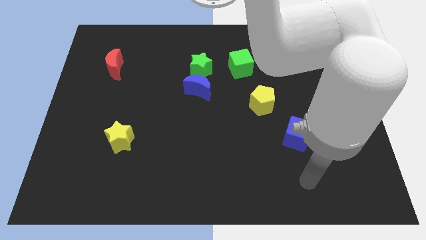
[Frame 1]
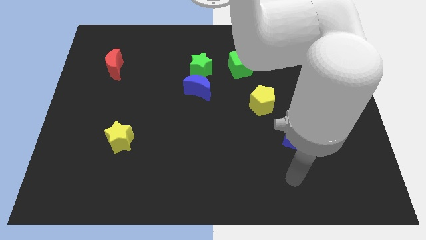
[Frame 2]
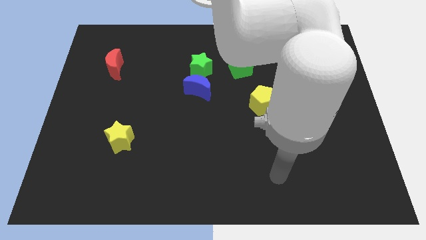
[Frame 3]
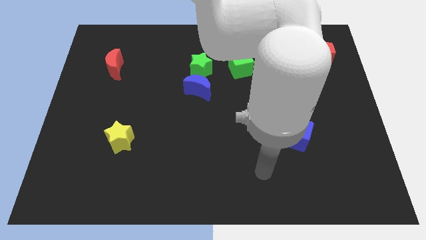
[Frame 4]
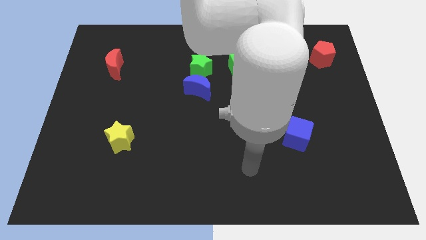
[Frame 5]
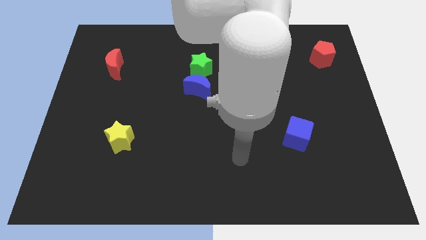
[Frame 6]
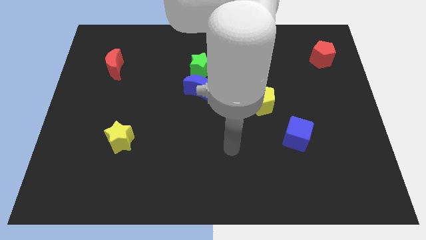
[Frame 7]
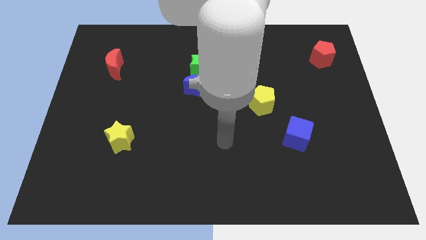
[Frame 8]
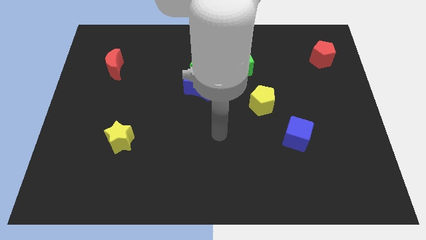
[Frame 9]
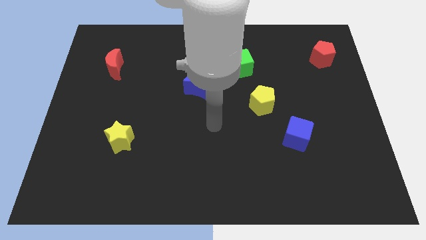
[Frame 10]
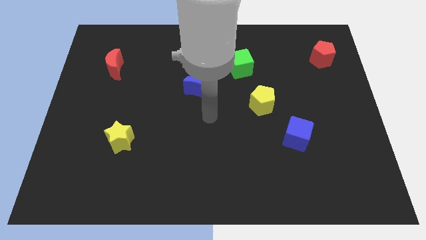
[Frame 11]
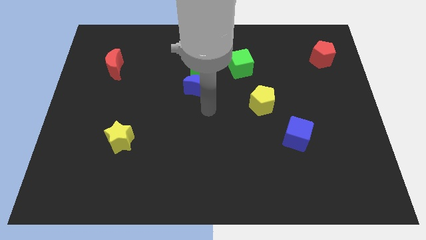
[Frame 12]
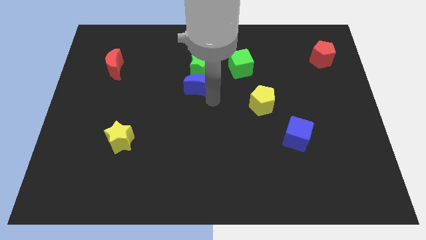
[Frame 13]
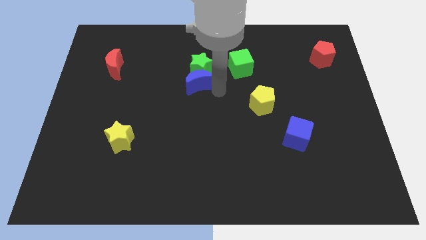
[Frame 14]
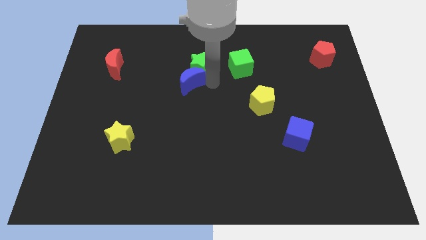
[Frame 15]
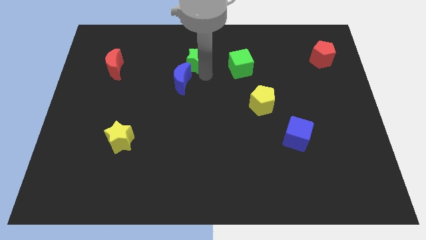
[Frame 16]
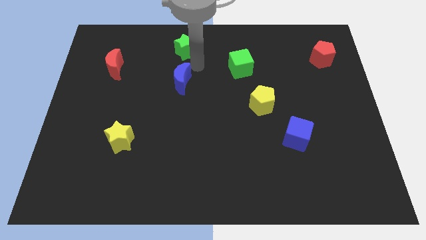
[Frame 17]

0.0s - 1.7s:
move the blue moon away from the green star

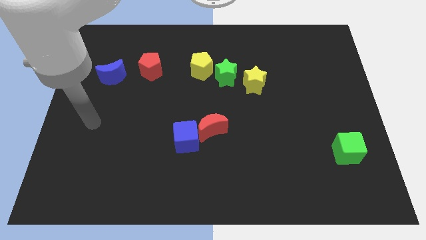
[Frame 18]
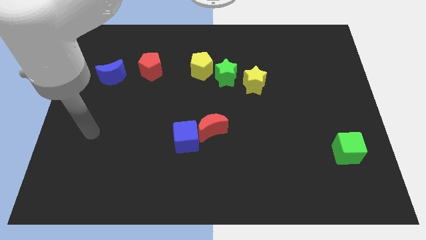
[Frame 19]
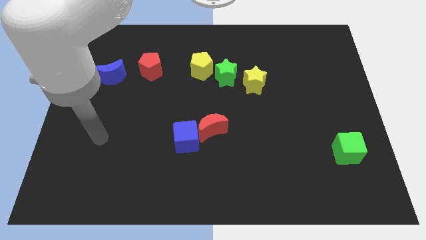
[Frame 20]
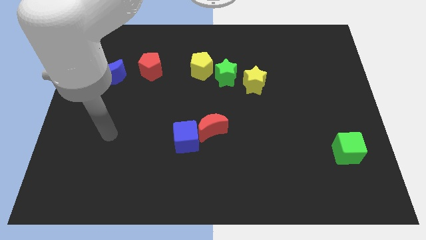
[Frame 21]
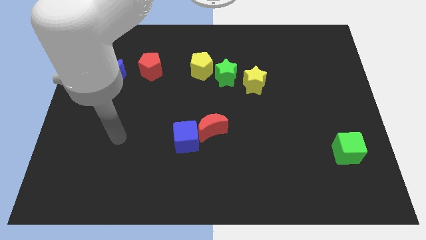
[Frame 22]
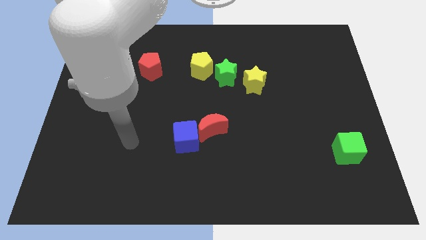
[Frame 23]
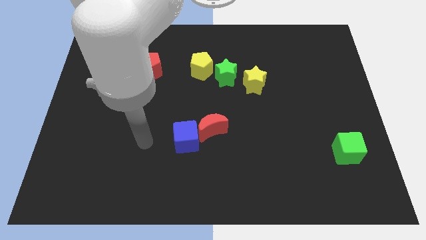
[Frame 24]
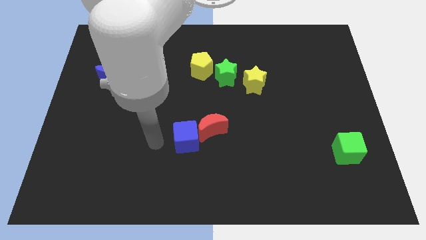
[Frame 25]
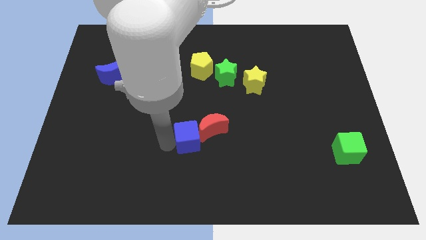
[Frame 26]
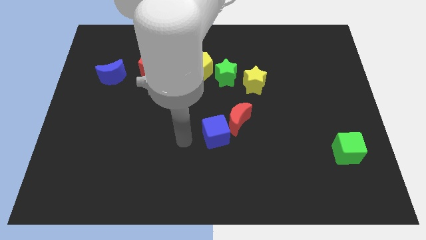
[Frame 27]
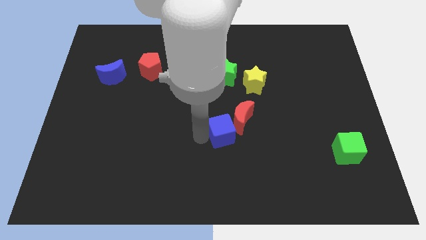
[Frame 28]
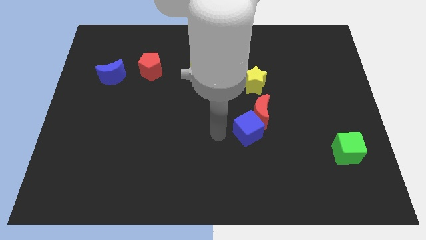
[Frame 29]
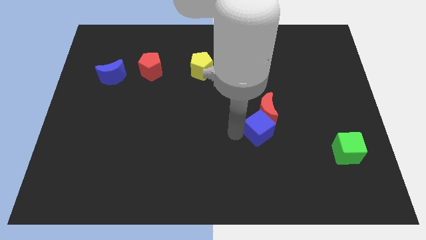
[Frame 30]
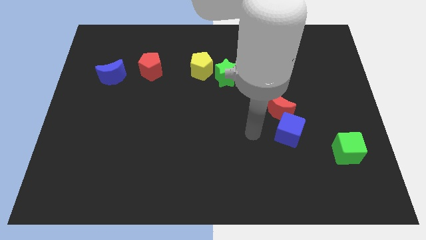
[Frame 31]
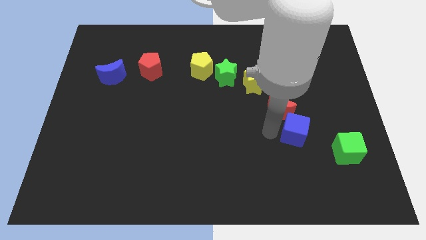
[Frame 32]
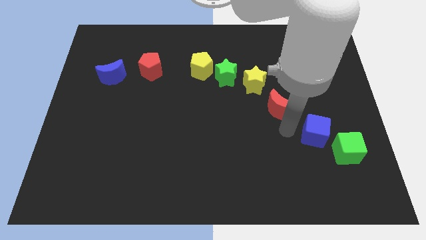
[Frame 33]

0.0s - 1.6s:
move the red moon away from the blue cube

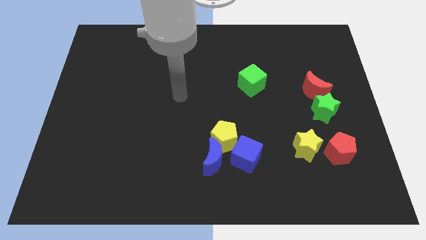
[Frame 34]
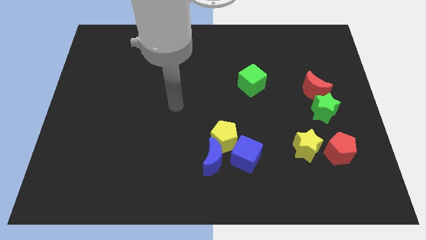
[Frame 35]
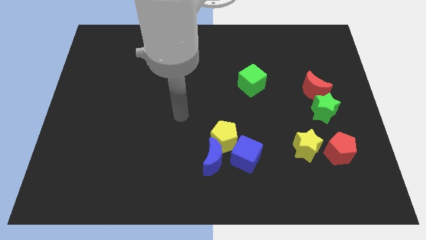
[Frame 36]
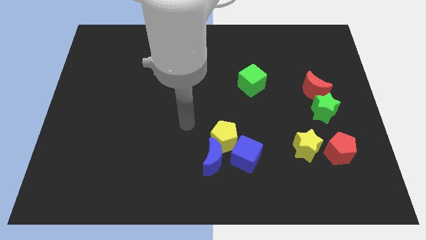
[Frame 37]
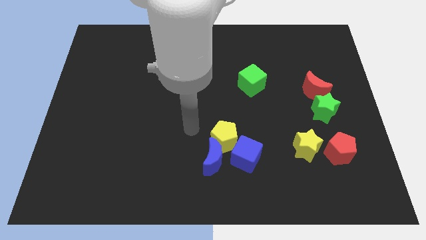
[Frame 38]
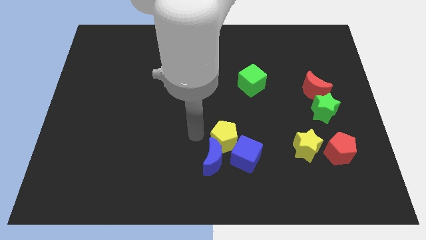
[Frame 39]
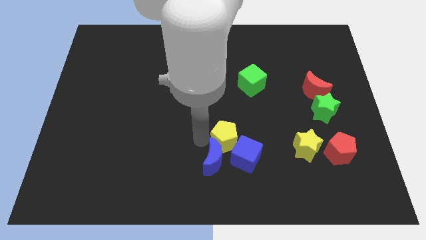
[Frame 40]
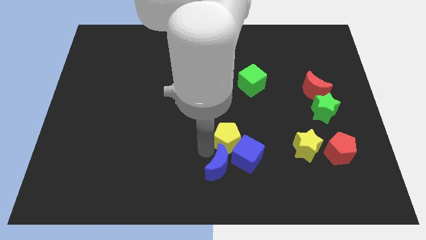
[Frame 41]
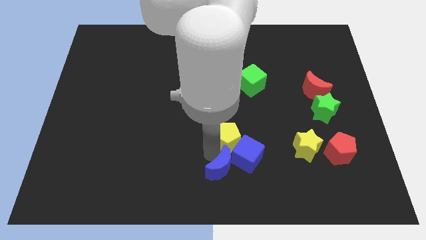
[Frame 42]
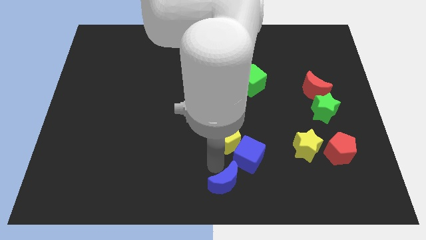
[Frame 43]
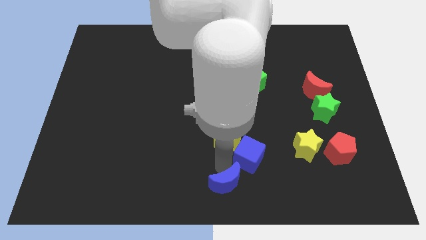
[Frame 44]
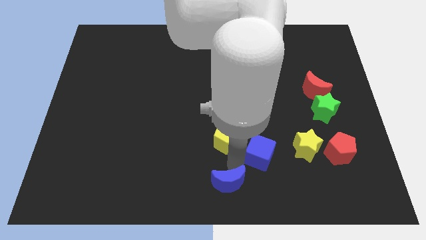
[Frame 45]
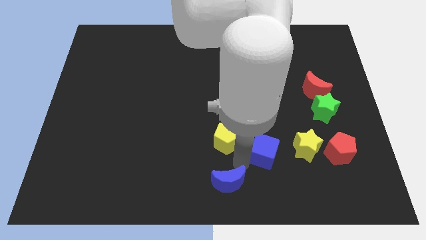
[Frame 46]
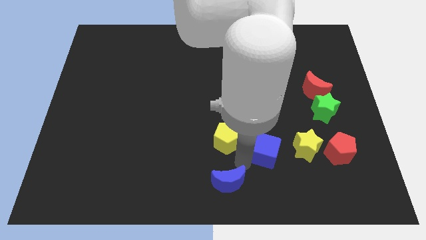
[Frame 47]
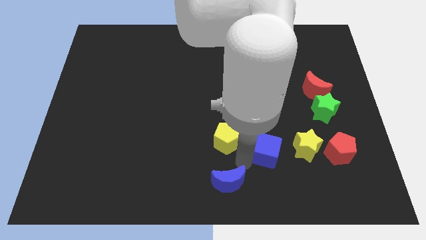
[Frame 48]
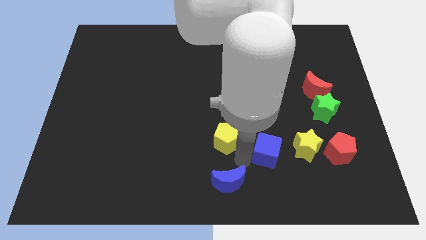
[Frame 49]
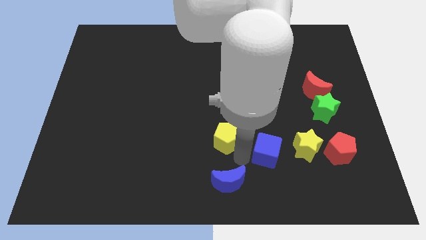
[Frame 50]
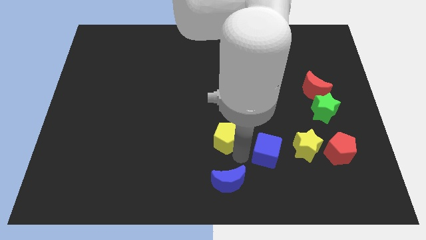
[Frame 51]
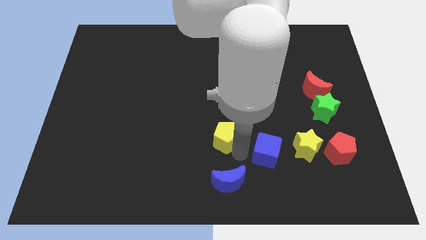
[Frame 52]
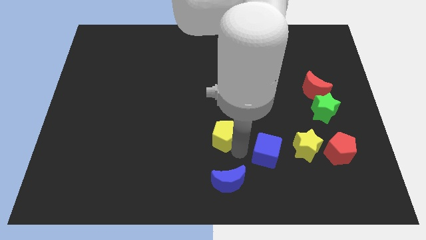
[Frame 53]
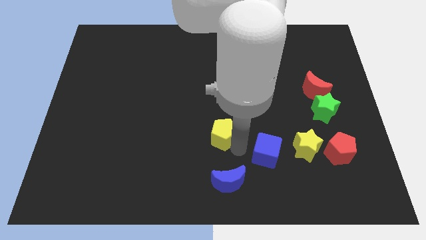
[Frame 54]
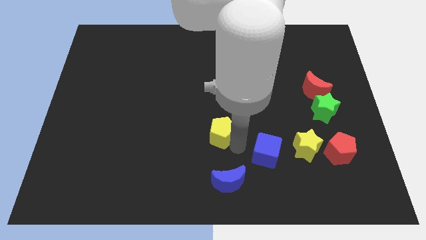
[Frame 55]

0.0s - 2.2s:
pull the yellow pentagon apart from the blue moon and blue cube

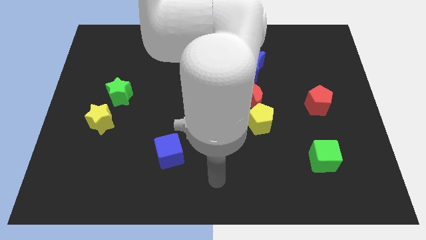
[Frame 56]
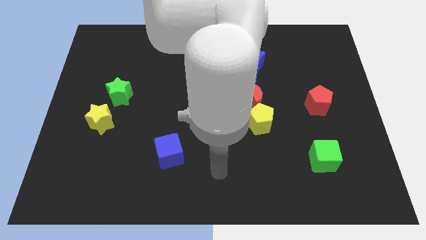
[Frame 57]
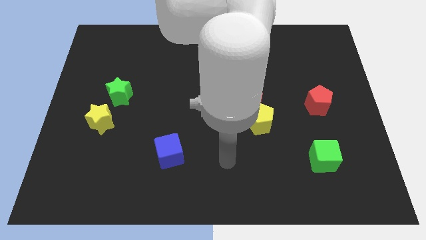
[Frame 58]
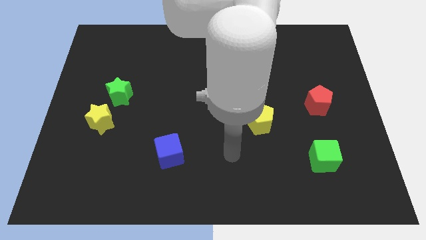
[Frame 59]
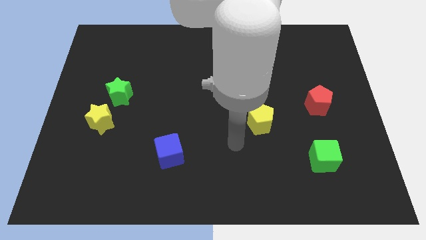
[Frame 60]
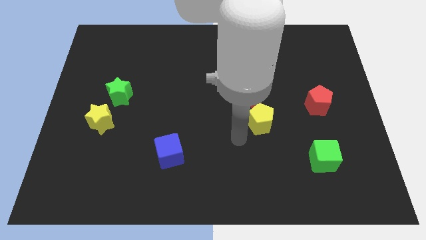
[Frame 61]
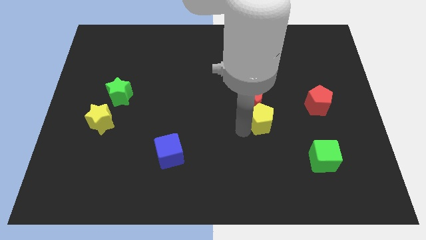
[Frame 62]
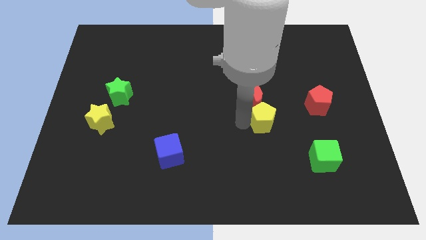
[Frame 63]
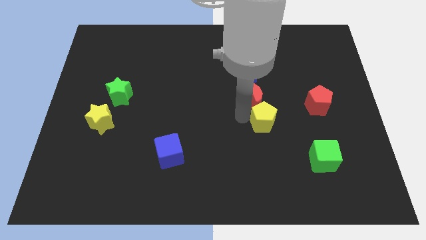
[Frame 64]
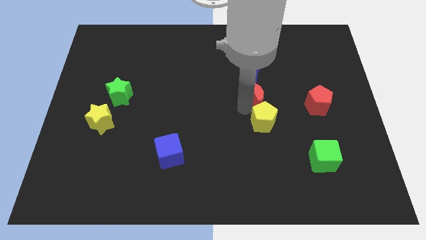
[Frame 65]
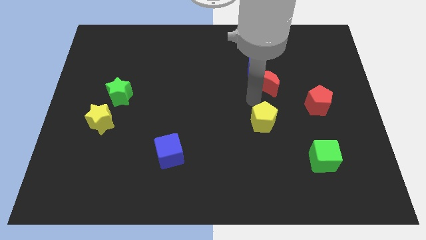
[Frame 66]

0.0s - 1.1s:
pull the yellow pentagon apart from the red moon

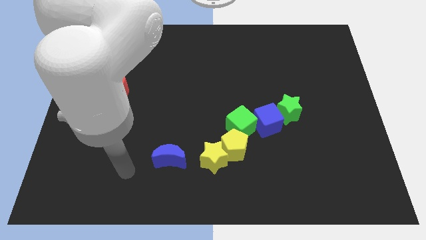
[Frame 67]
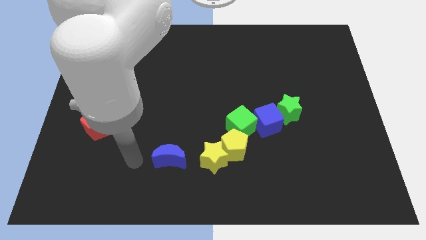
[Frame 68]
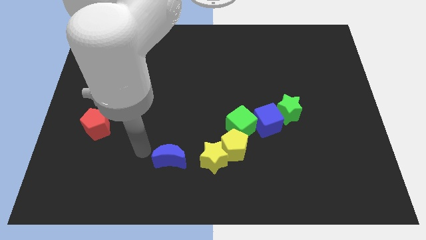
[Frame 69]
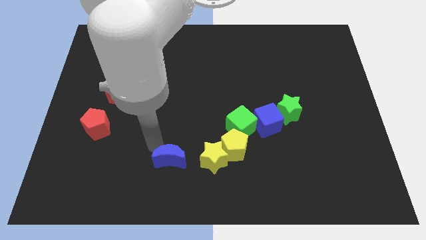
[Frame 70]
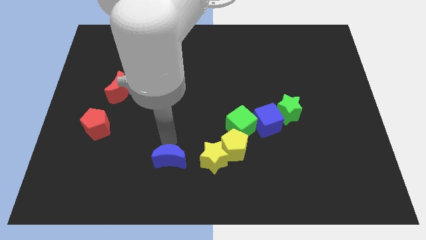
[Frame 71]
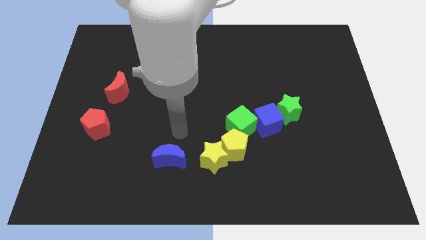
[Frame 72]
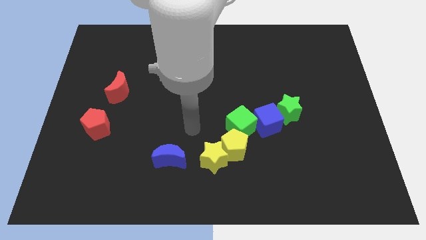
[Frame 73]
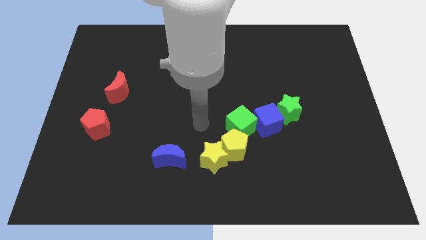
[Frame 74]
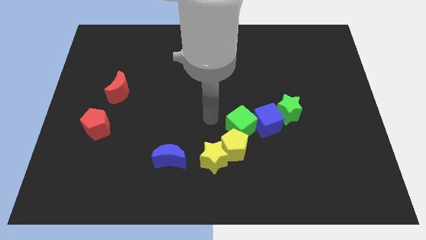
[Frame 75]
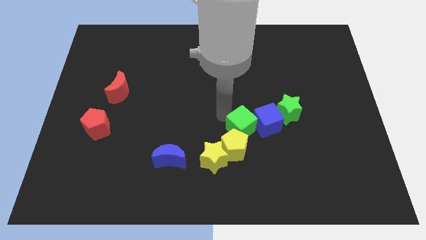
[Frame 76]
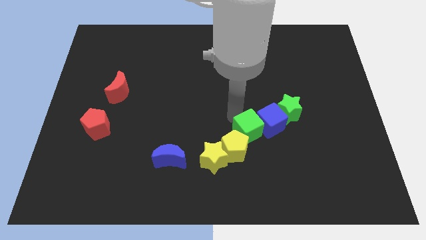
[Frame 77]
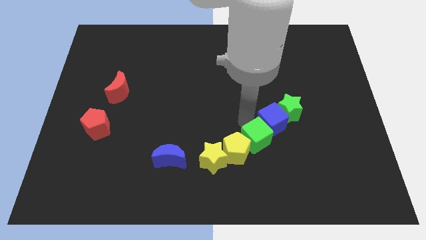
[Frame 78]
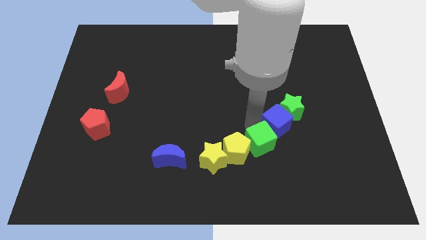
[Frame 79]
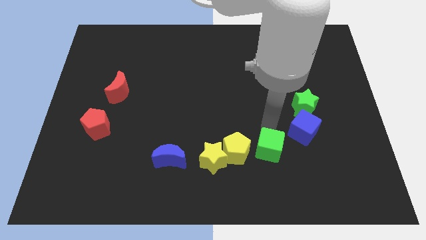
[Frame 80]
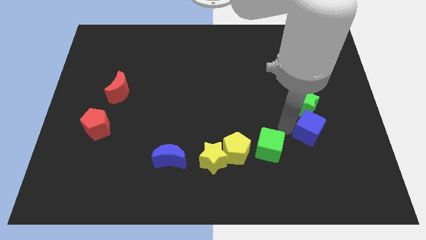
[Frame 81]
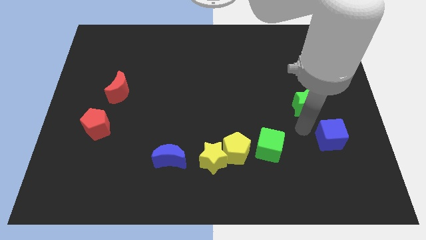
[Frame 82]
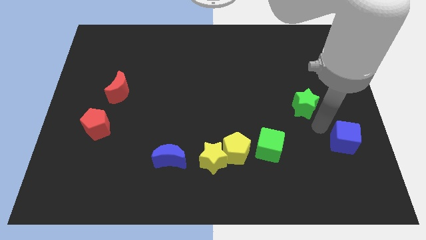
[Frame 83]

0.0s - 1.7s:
pull the green star apart from the blue cube

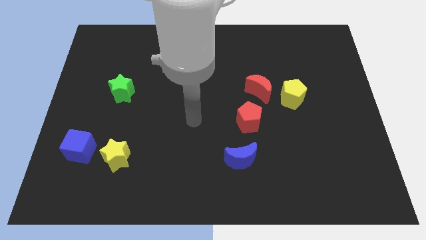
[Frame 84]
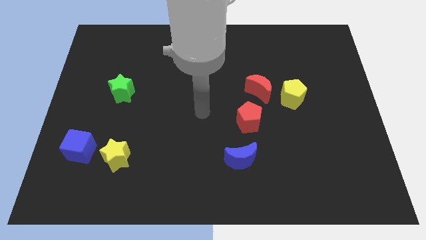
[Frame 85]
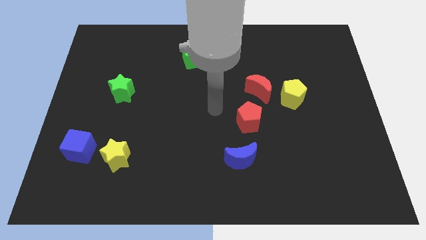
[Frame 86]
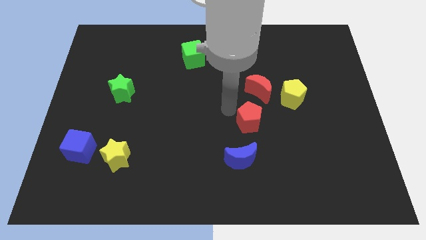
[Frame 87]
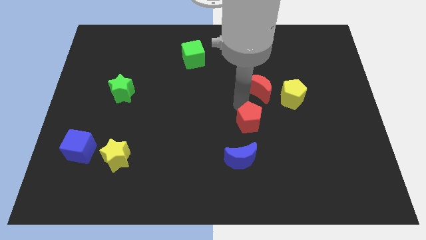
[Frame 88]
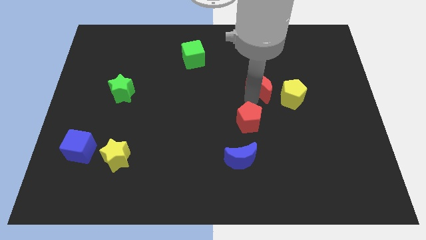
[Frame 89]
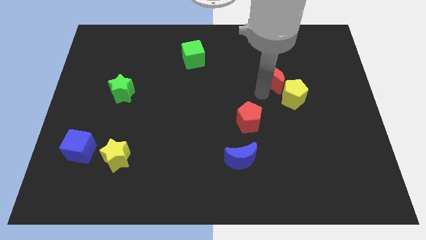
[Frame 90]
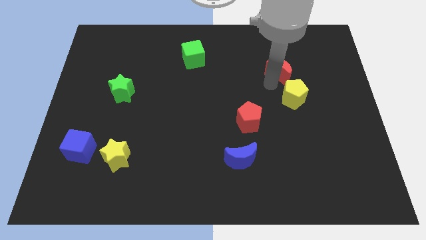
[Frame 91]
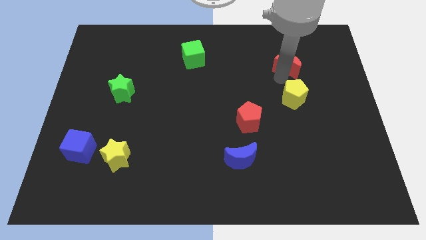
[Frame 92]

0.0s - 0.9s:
move the yellow pentagon away from the red moon
